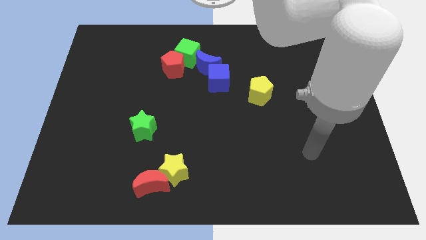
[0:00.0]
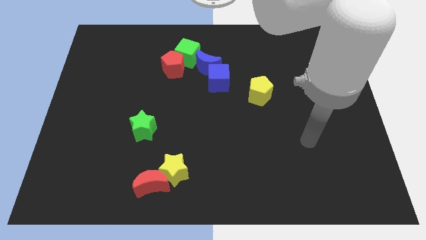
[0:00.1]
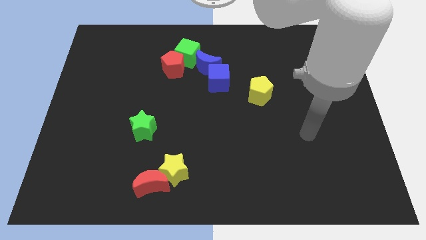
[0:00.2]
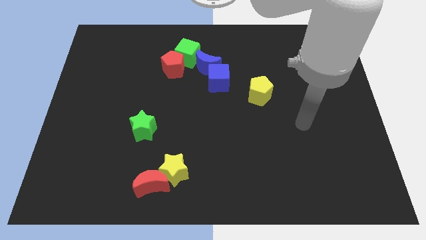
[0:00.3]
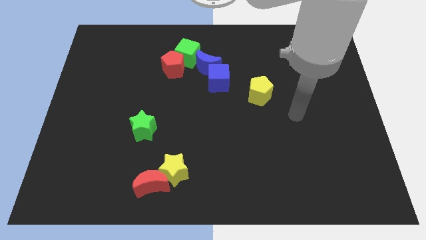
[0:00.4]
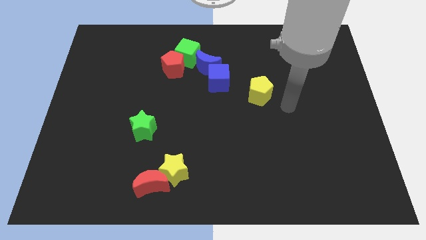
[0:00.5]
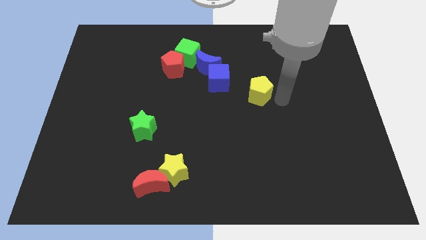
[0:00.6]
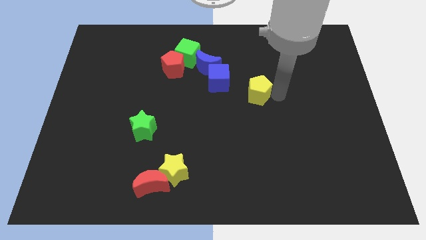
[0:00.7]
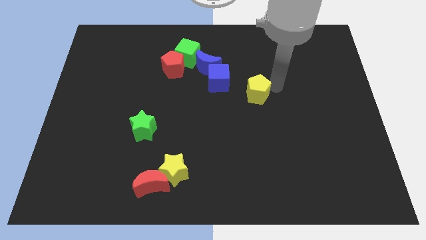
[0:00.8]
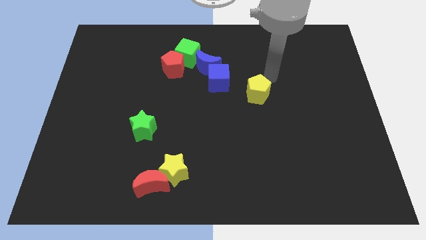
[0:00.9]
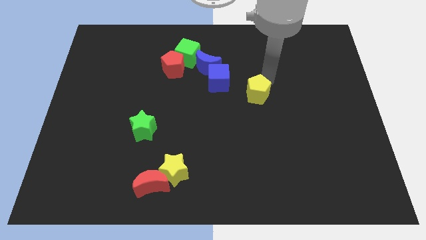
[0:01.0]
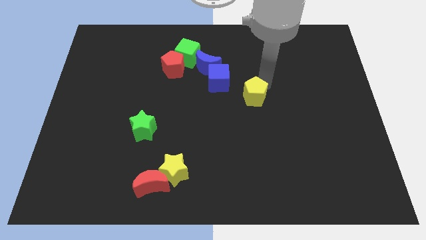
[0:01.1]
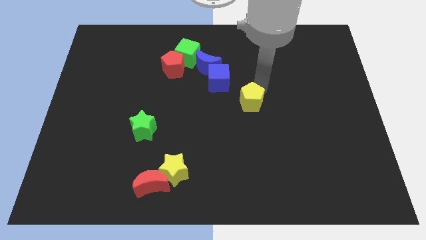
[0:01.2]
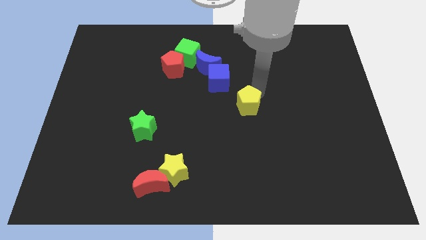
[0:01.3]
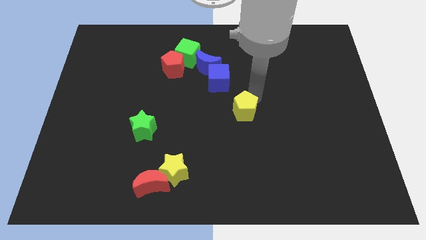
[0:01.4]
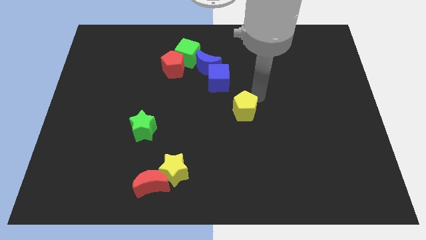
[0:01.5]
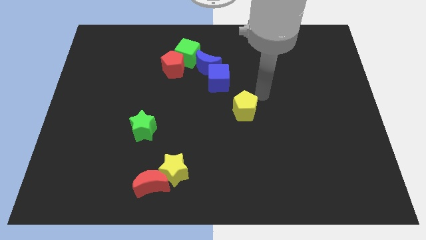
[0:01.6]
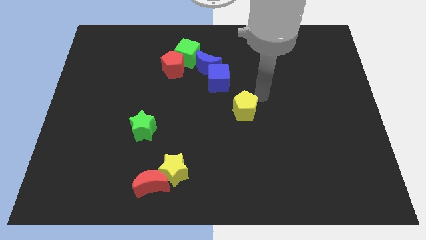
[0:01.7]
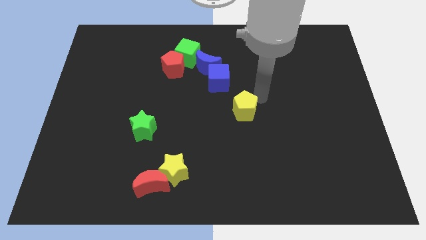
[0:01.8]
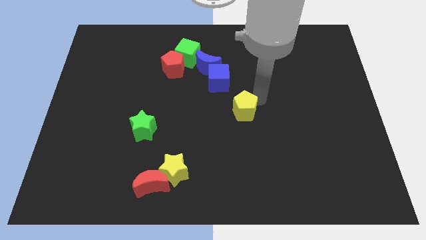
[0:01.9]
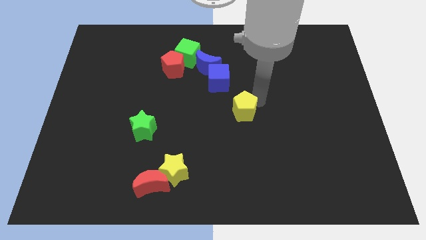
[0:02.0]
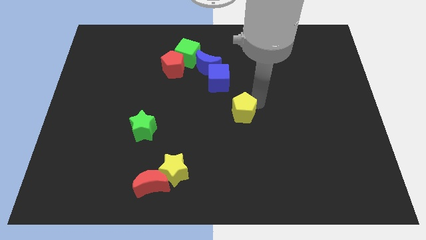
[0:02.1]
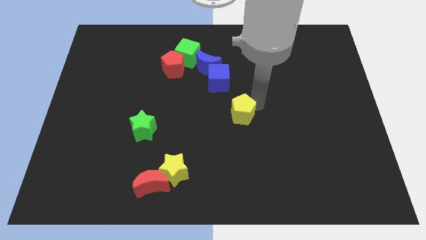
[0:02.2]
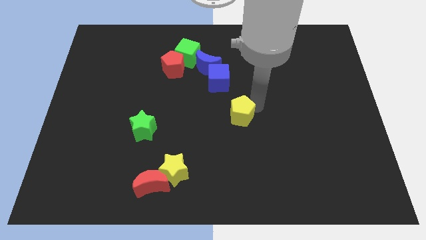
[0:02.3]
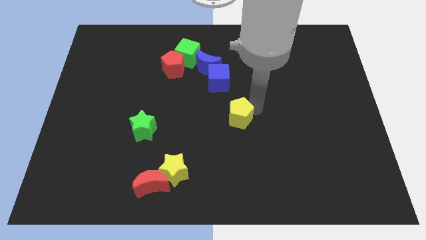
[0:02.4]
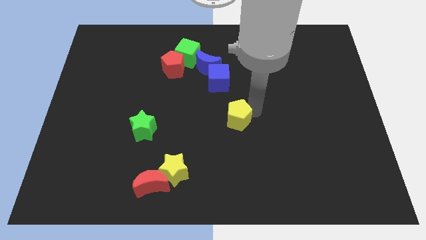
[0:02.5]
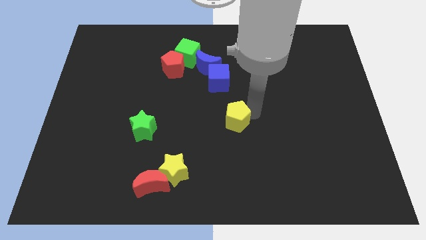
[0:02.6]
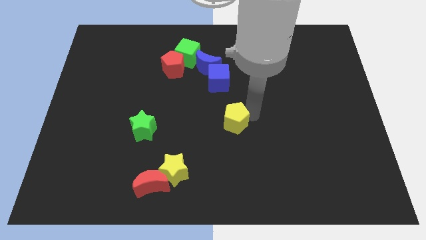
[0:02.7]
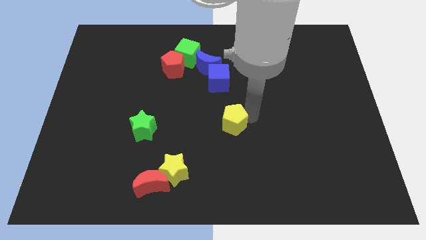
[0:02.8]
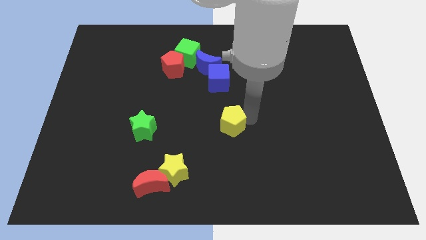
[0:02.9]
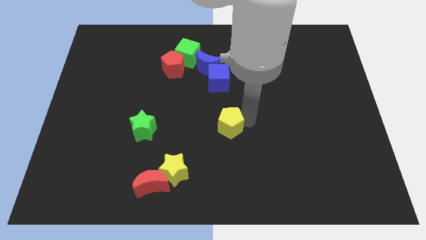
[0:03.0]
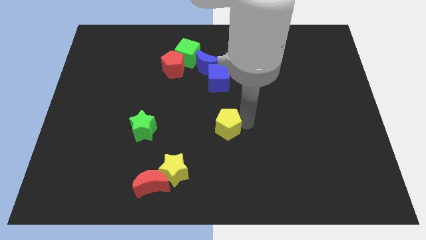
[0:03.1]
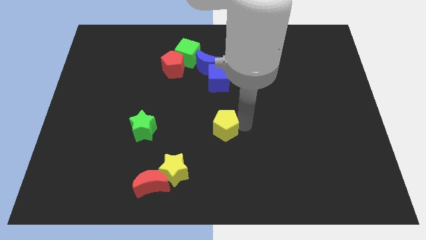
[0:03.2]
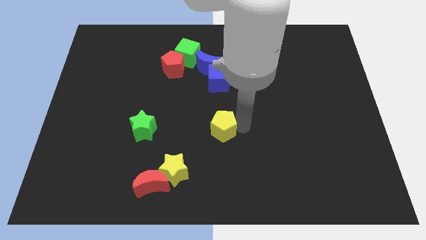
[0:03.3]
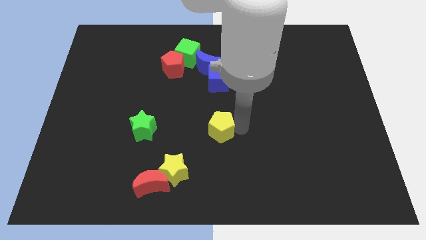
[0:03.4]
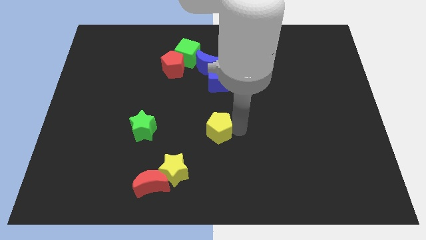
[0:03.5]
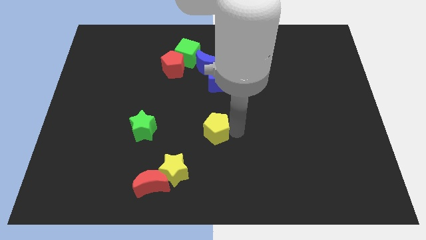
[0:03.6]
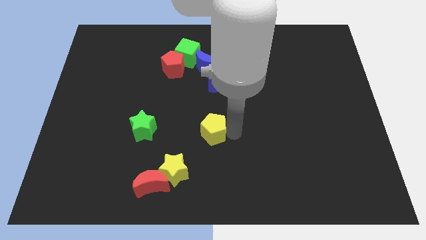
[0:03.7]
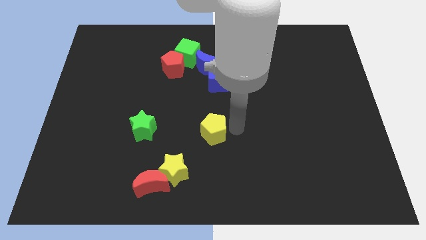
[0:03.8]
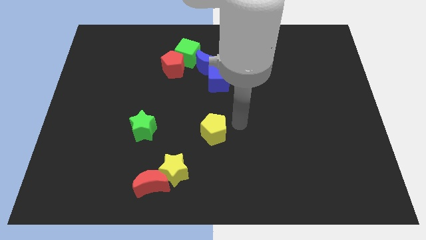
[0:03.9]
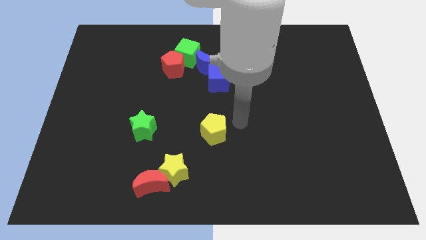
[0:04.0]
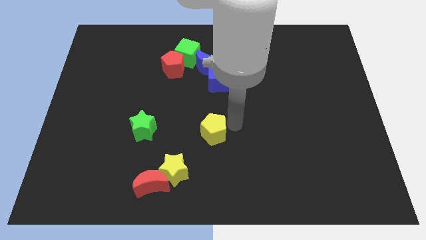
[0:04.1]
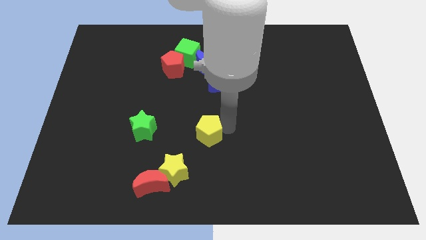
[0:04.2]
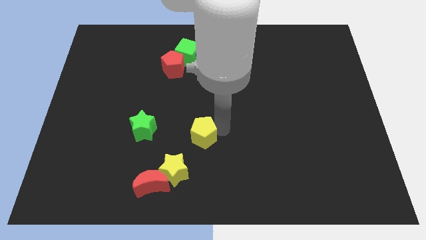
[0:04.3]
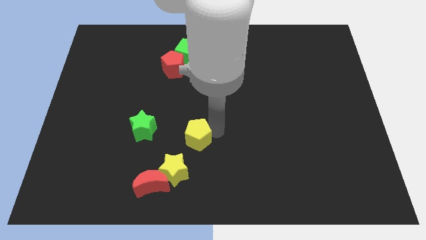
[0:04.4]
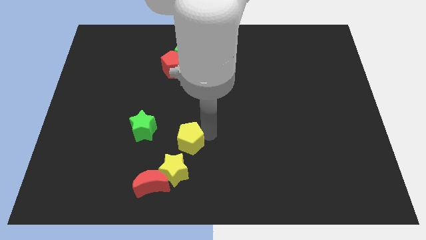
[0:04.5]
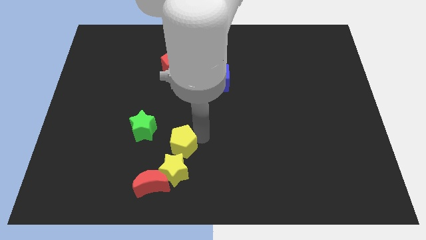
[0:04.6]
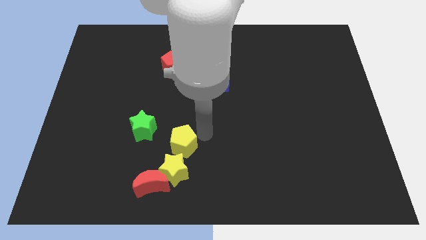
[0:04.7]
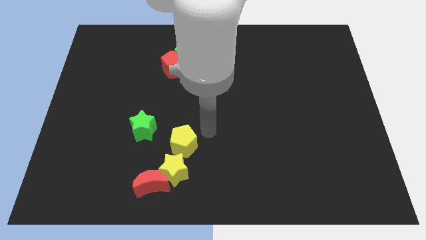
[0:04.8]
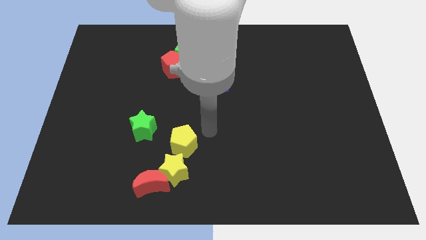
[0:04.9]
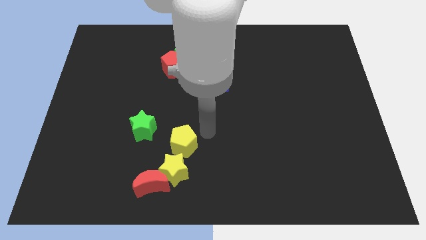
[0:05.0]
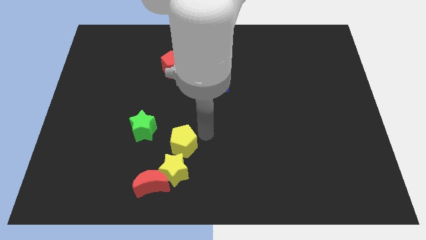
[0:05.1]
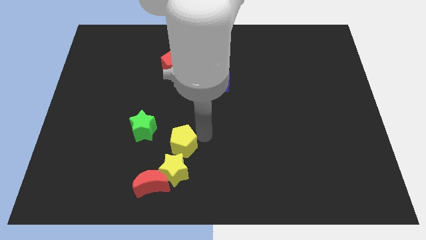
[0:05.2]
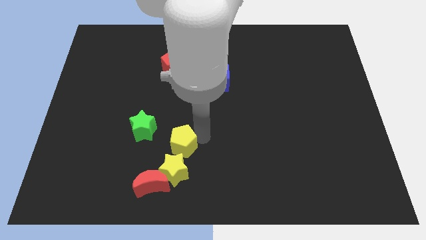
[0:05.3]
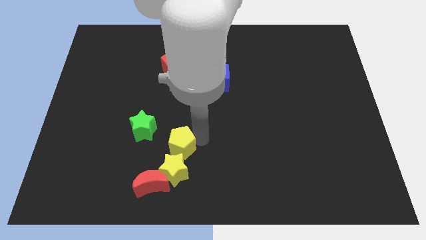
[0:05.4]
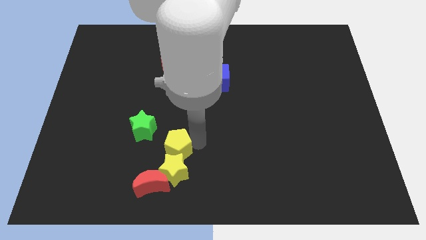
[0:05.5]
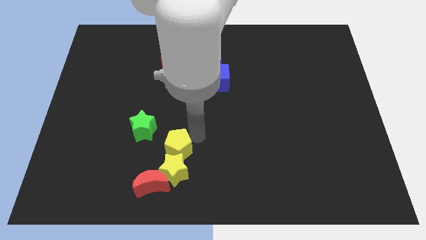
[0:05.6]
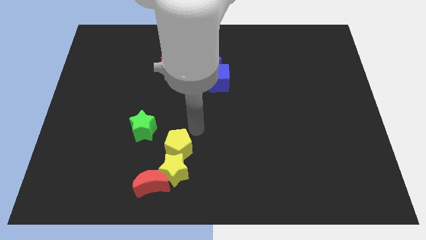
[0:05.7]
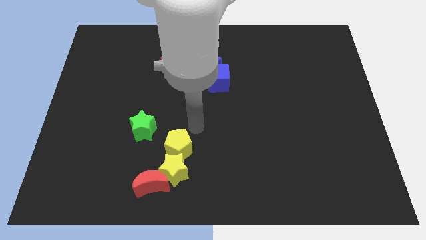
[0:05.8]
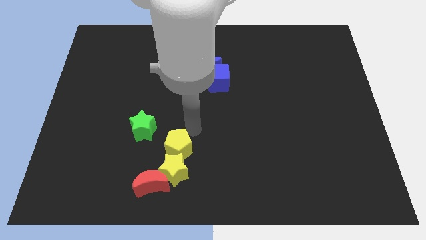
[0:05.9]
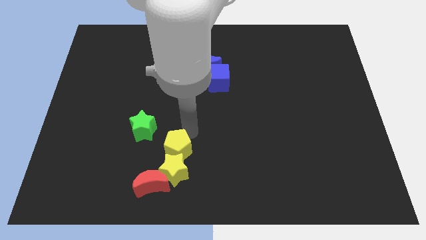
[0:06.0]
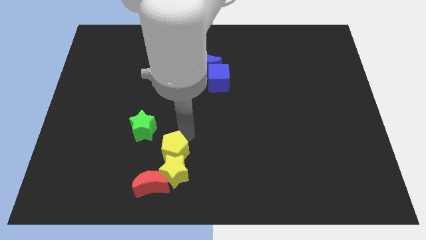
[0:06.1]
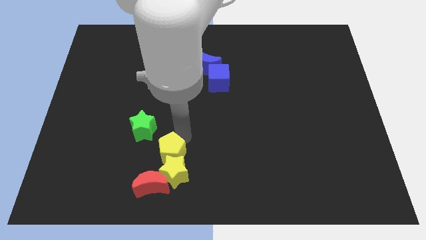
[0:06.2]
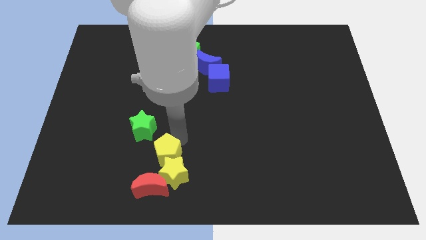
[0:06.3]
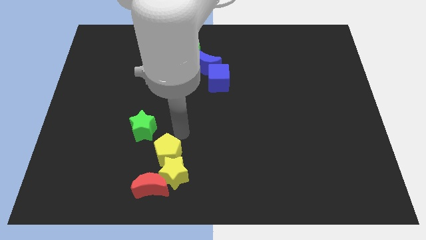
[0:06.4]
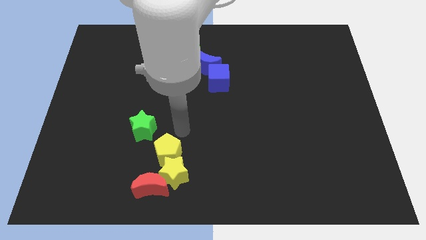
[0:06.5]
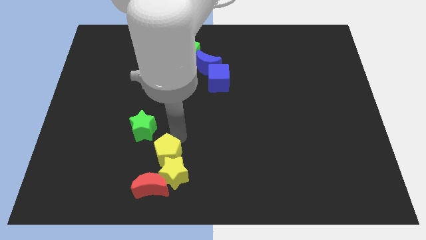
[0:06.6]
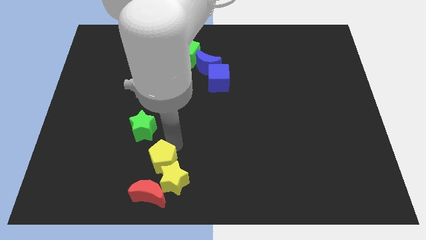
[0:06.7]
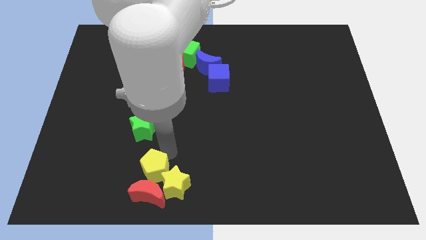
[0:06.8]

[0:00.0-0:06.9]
push the yellow pentagon next to the red moon
